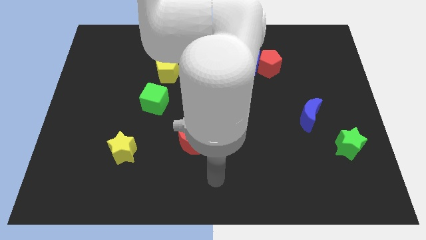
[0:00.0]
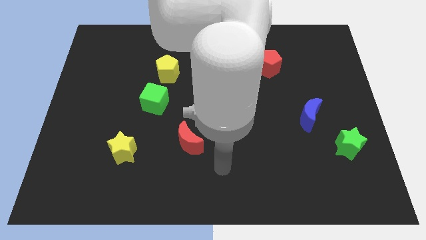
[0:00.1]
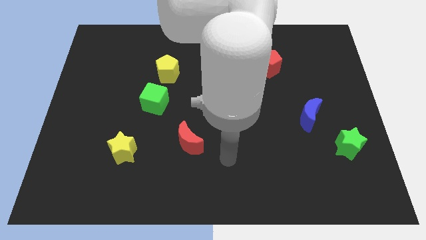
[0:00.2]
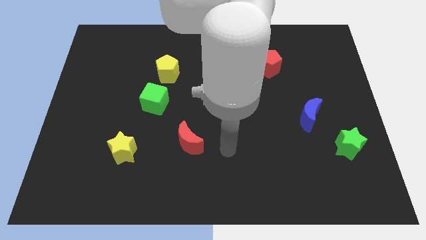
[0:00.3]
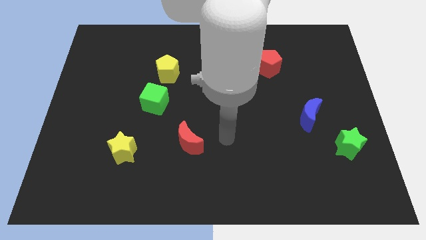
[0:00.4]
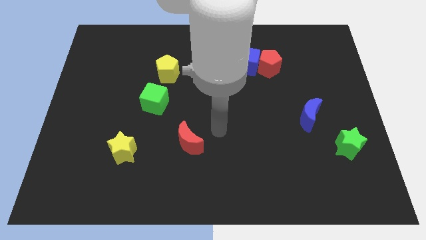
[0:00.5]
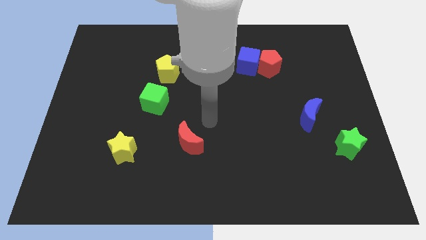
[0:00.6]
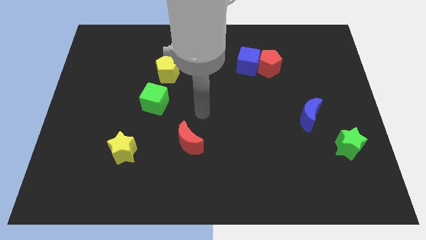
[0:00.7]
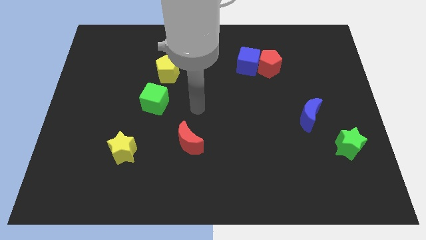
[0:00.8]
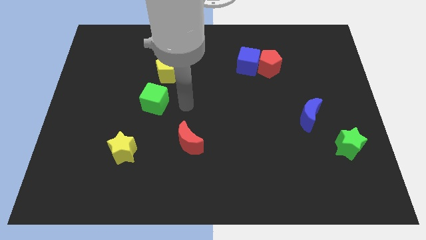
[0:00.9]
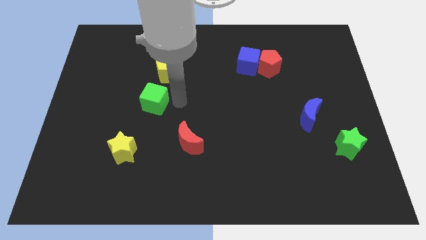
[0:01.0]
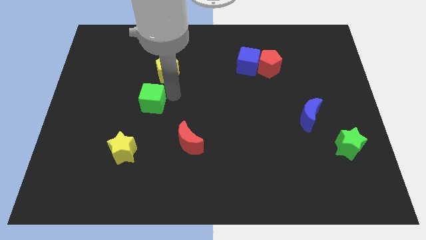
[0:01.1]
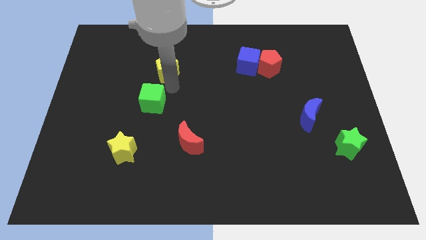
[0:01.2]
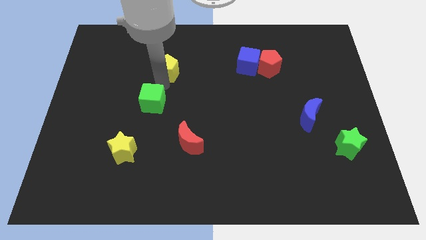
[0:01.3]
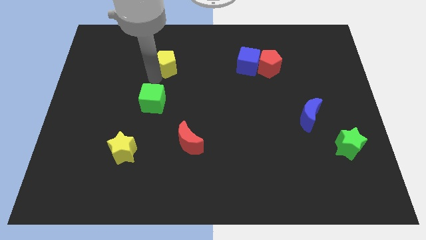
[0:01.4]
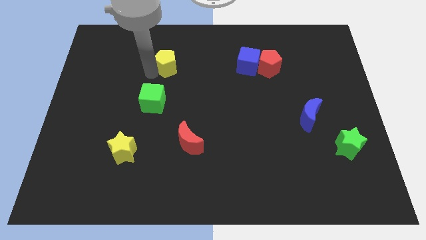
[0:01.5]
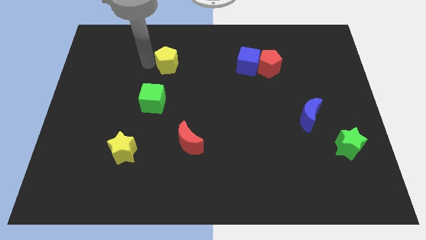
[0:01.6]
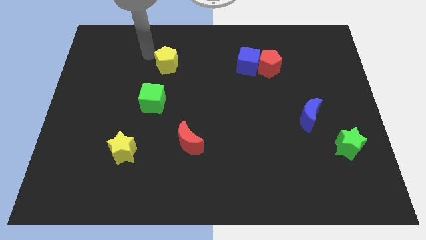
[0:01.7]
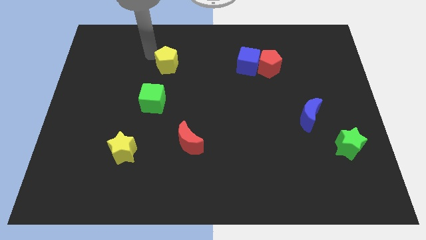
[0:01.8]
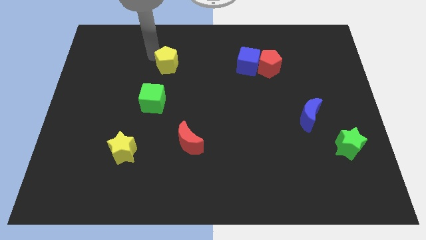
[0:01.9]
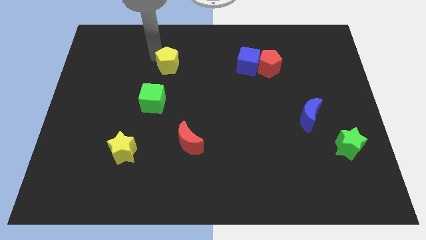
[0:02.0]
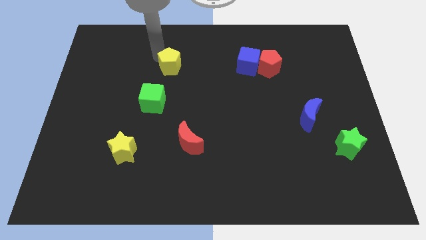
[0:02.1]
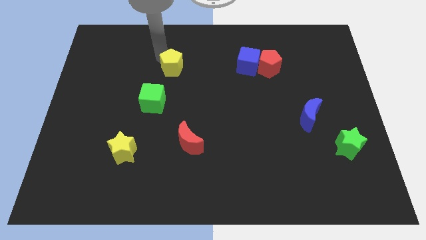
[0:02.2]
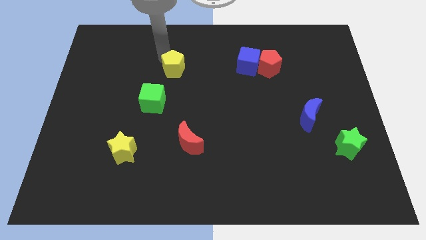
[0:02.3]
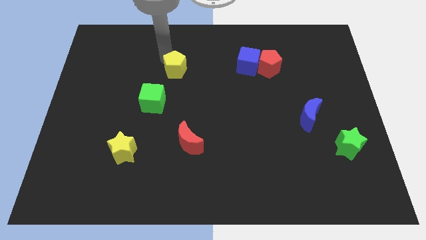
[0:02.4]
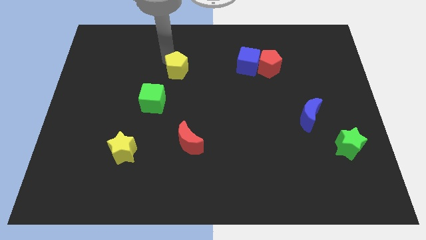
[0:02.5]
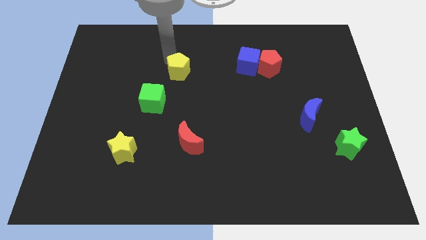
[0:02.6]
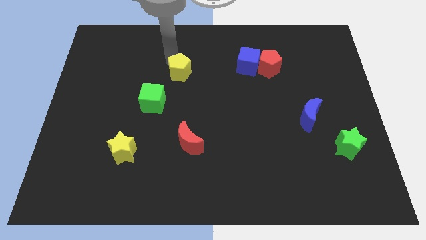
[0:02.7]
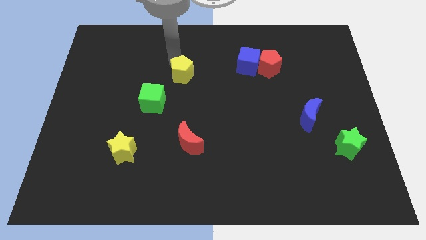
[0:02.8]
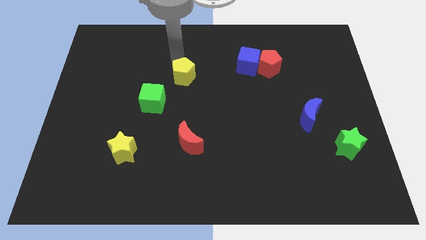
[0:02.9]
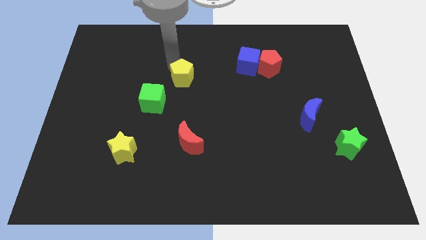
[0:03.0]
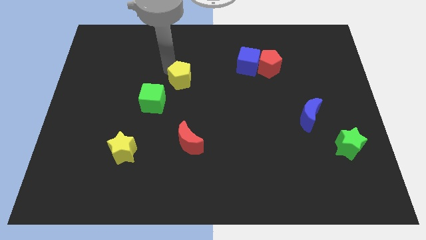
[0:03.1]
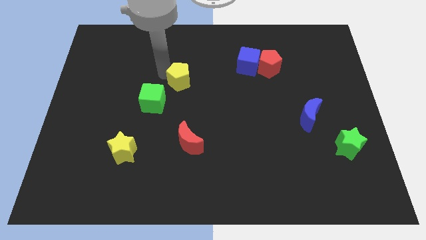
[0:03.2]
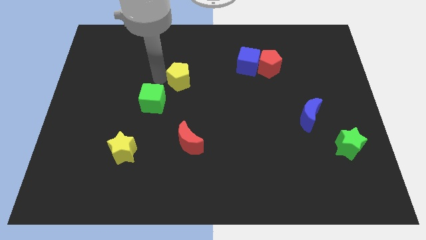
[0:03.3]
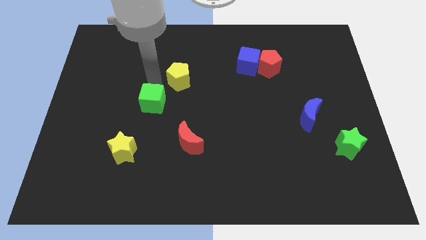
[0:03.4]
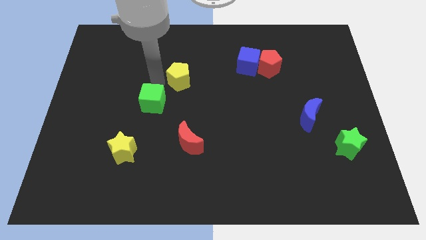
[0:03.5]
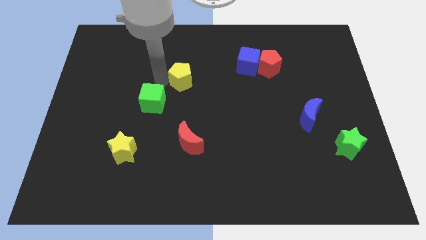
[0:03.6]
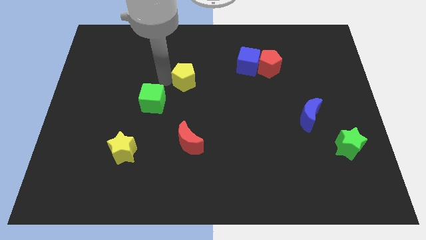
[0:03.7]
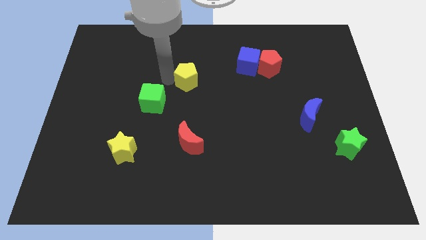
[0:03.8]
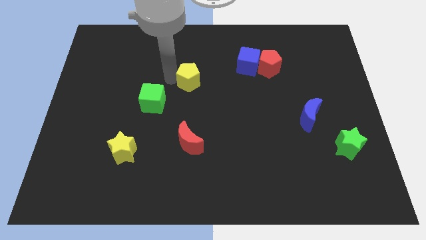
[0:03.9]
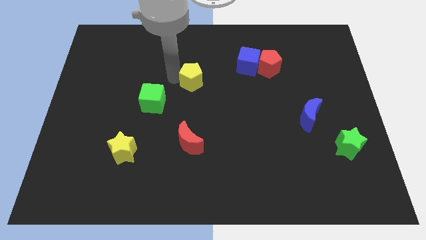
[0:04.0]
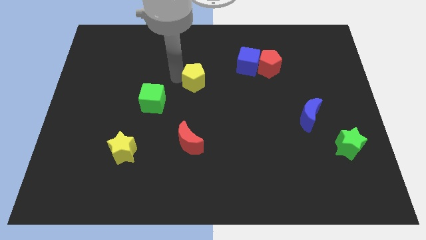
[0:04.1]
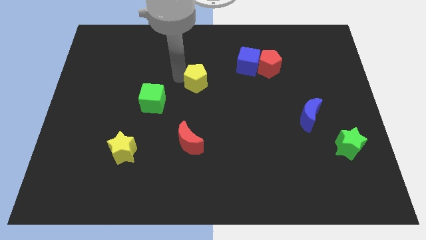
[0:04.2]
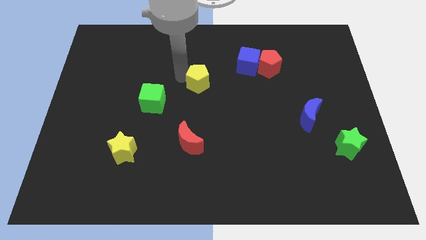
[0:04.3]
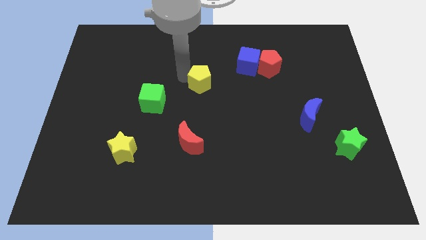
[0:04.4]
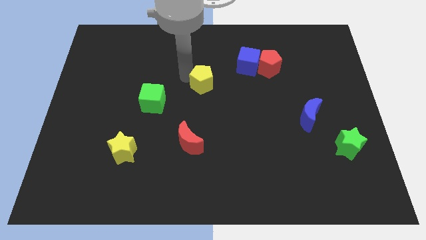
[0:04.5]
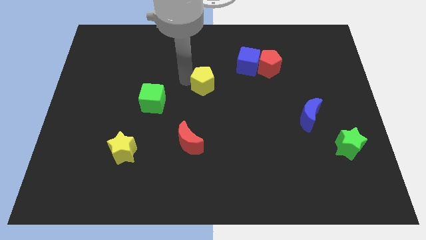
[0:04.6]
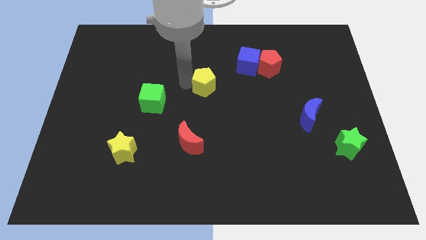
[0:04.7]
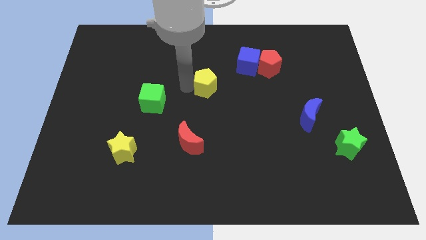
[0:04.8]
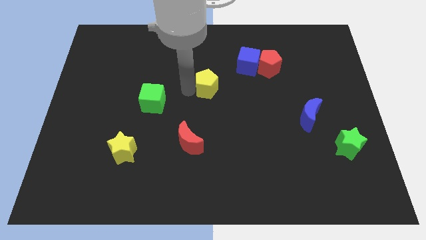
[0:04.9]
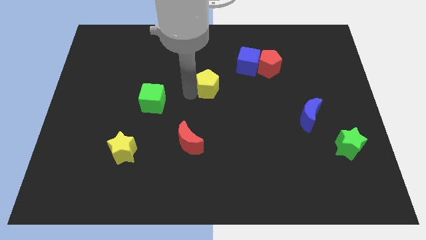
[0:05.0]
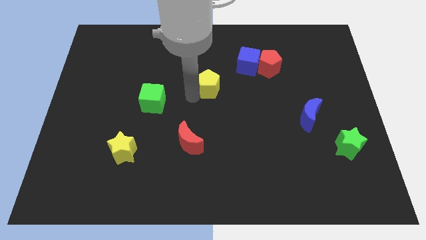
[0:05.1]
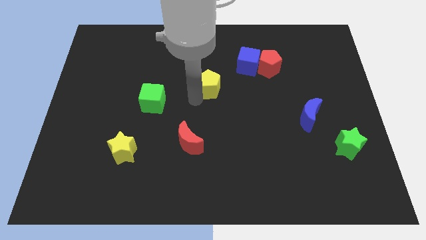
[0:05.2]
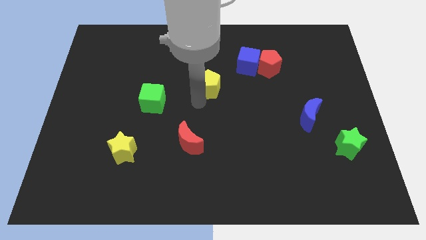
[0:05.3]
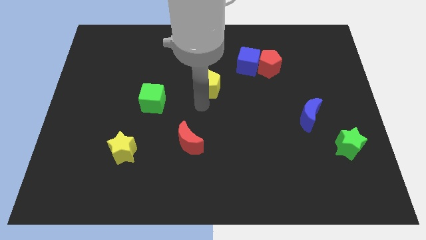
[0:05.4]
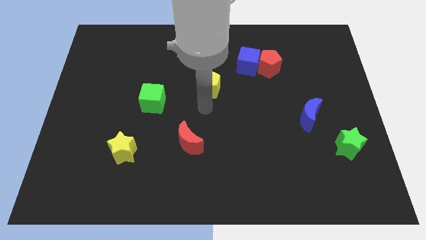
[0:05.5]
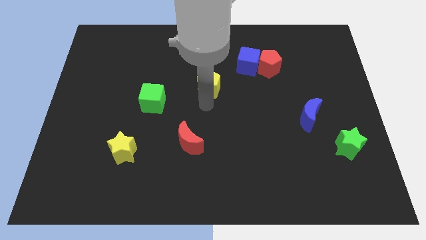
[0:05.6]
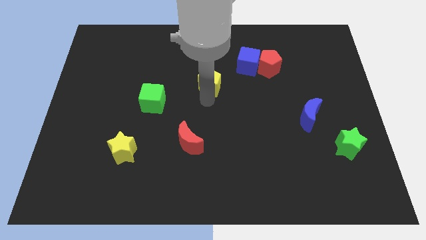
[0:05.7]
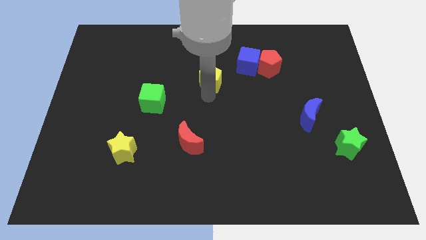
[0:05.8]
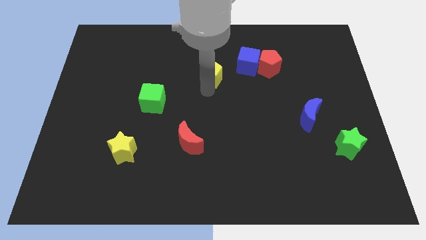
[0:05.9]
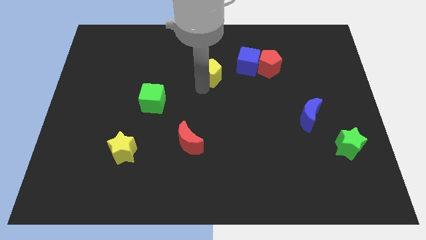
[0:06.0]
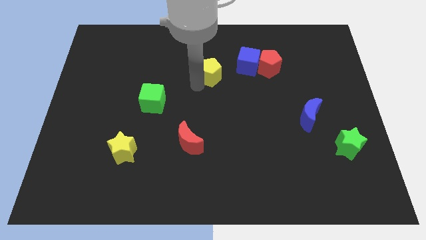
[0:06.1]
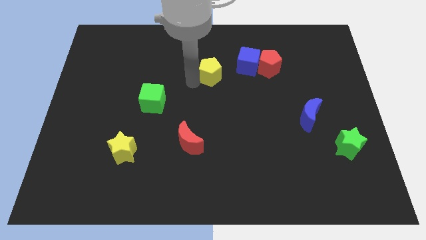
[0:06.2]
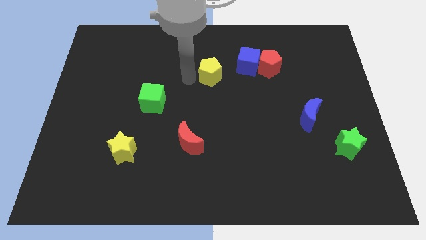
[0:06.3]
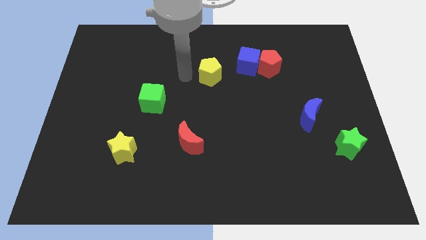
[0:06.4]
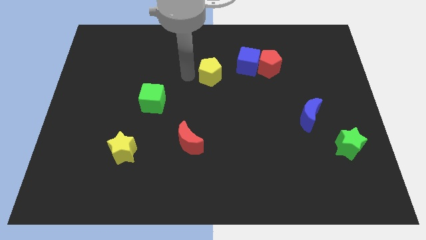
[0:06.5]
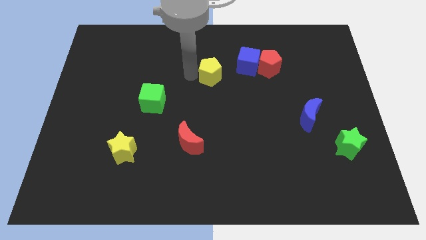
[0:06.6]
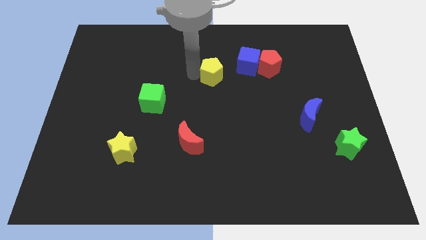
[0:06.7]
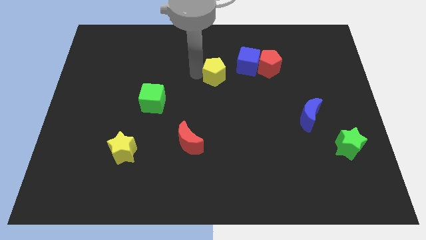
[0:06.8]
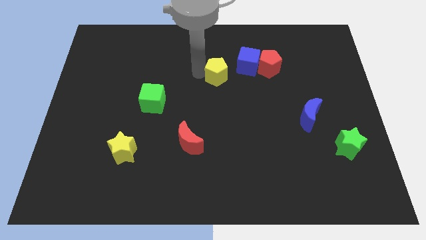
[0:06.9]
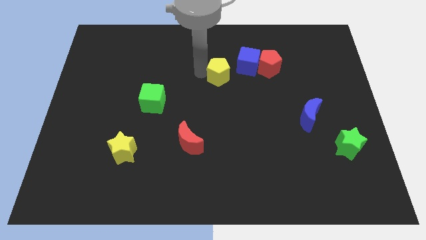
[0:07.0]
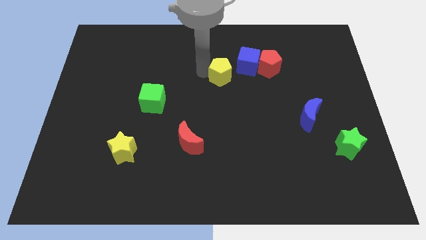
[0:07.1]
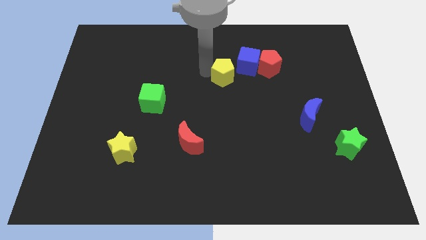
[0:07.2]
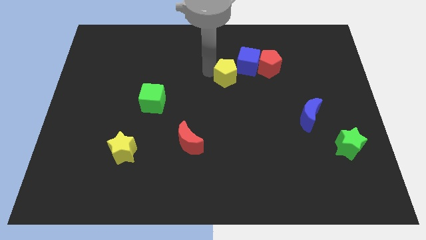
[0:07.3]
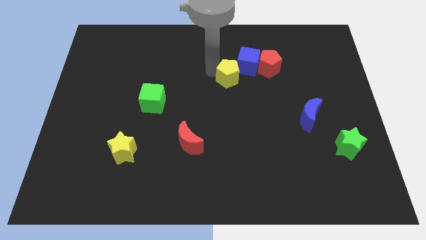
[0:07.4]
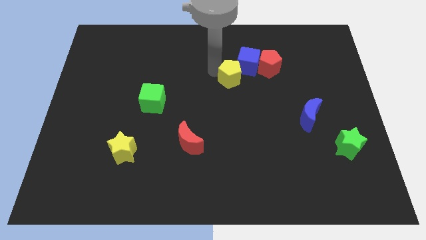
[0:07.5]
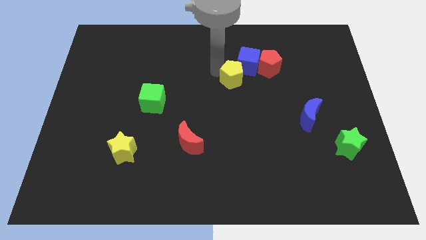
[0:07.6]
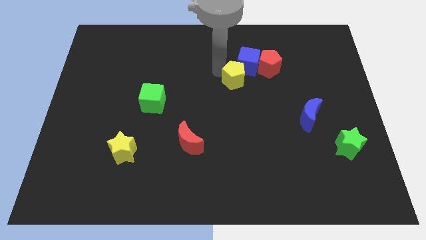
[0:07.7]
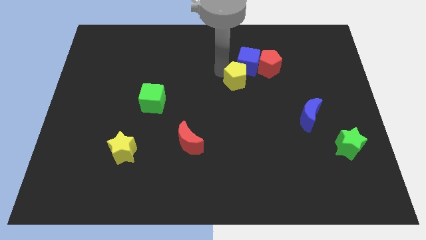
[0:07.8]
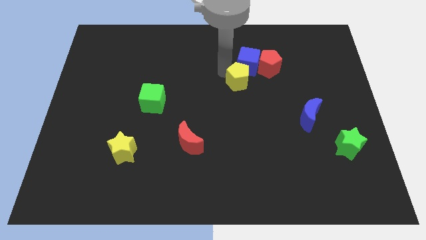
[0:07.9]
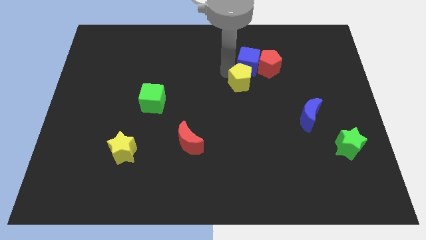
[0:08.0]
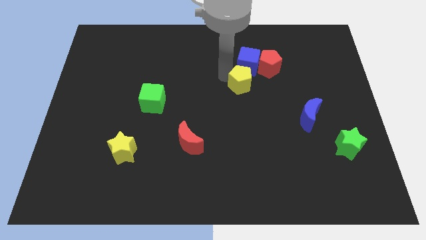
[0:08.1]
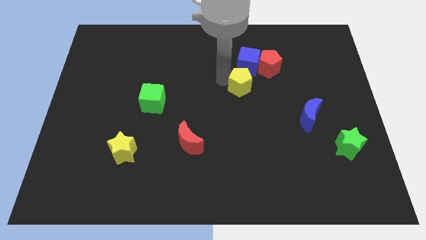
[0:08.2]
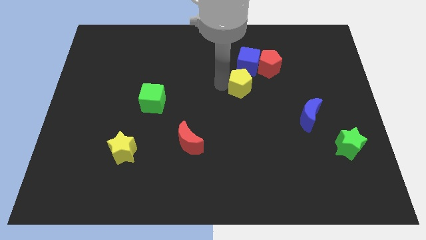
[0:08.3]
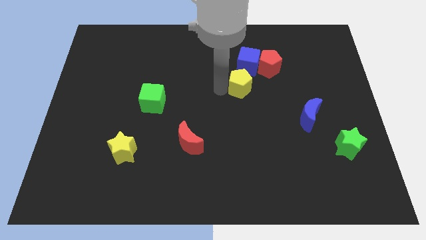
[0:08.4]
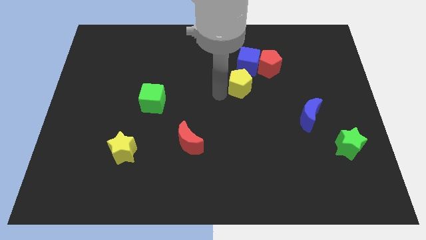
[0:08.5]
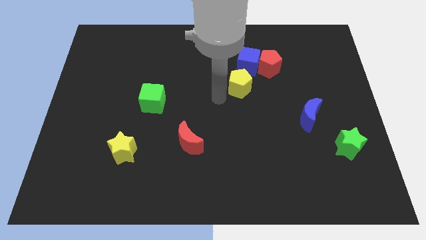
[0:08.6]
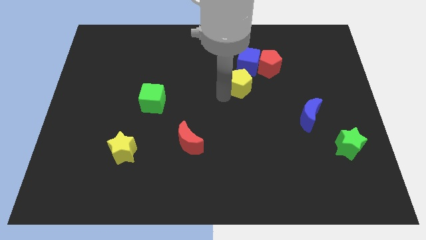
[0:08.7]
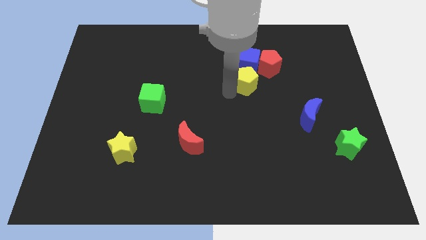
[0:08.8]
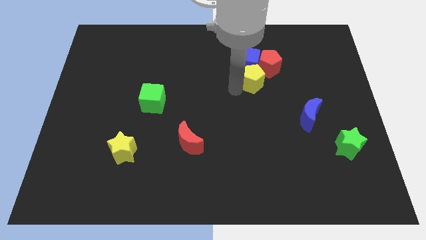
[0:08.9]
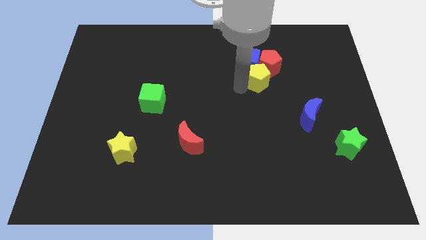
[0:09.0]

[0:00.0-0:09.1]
slide the yellow pentagon close to the red pentagon
